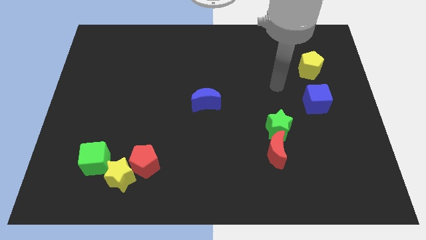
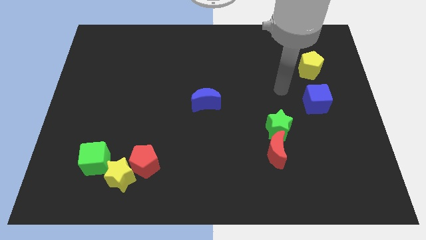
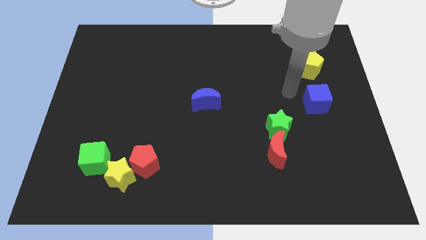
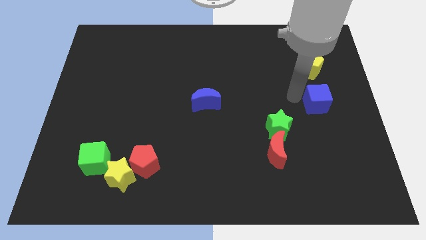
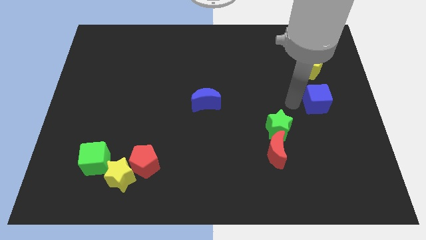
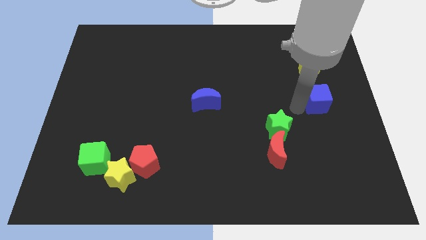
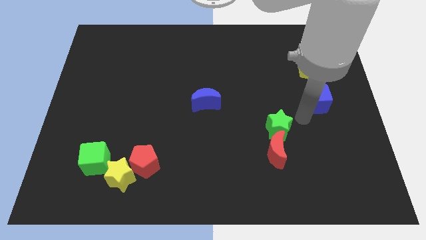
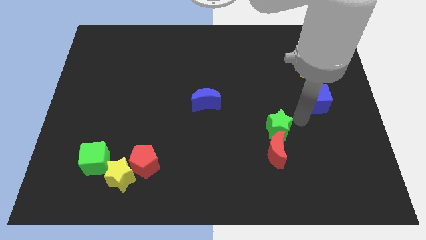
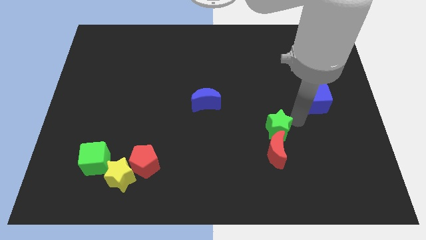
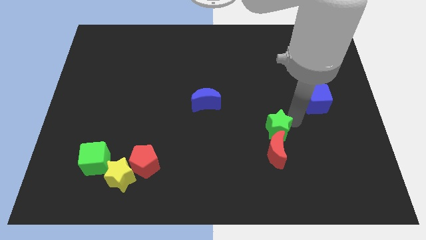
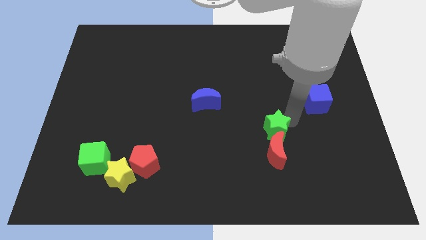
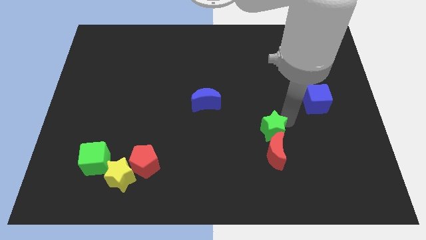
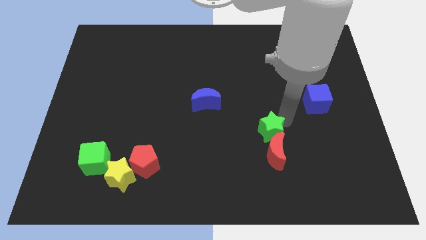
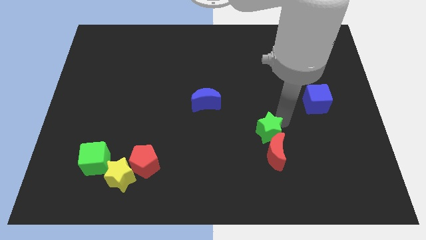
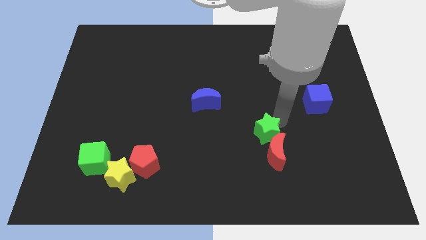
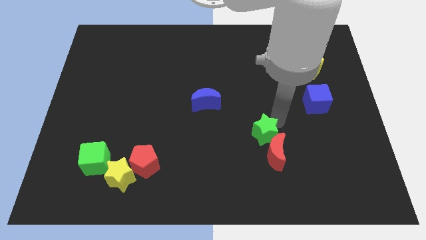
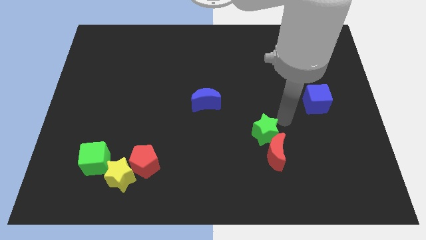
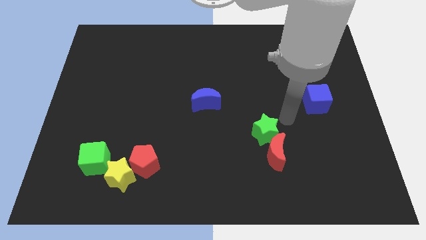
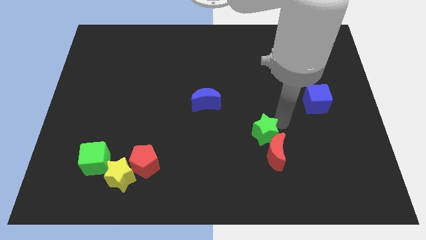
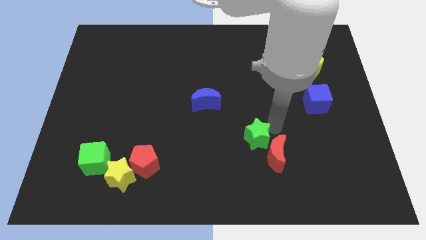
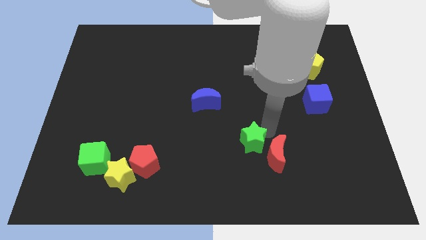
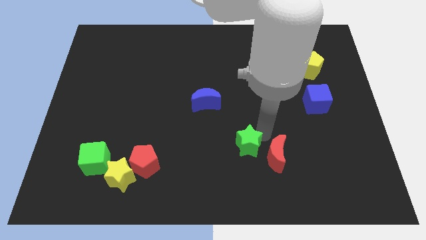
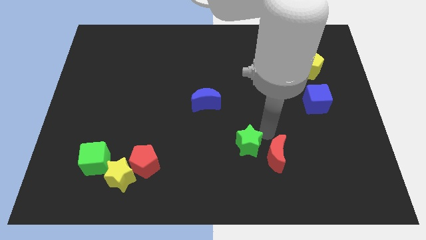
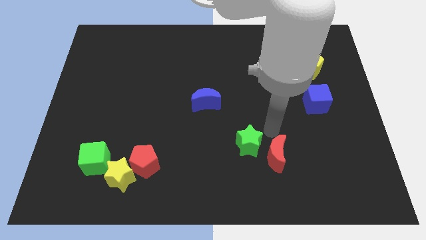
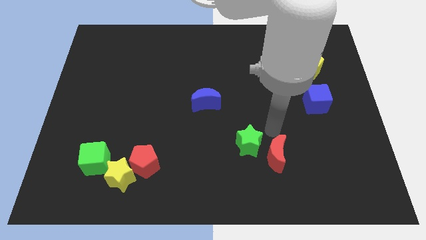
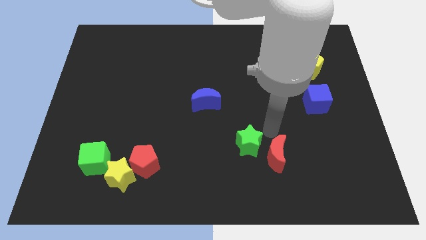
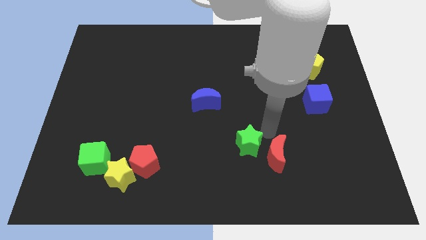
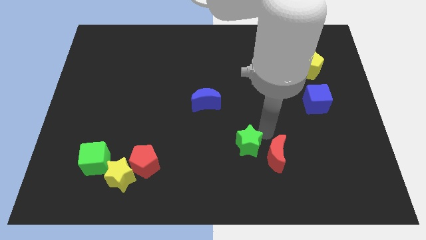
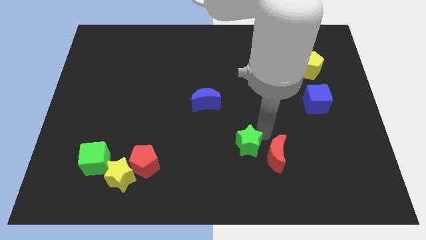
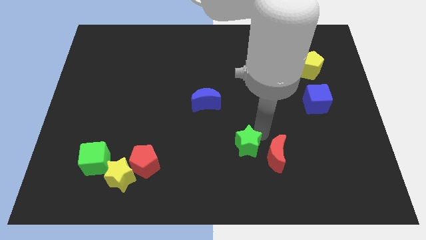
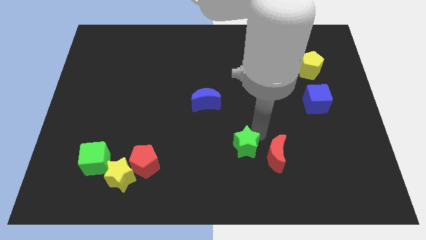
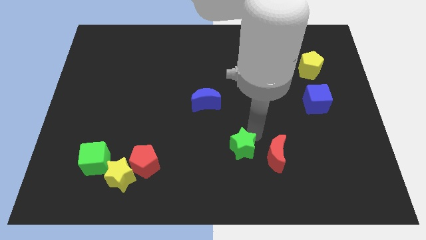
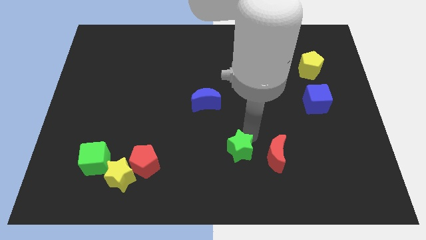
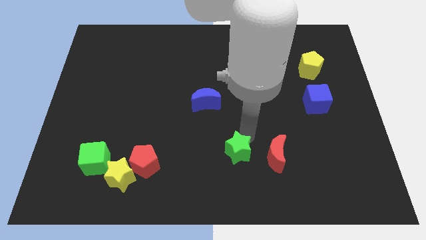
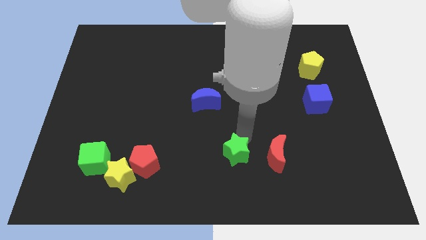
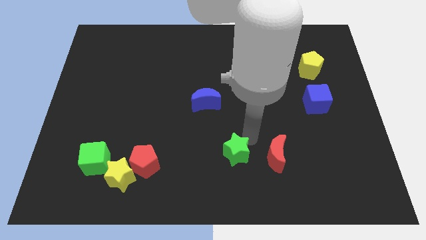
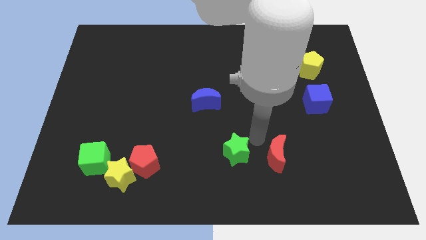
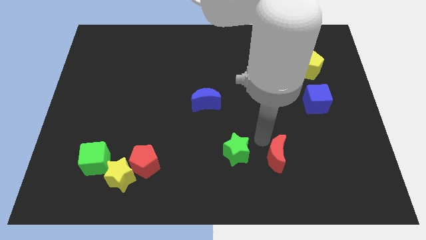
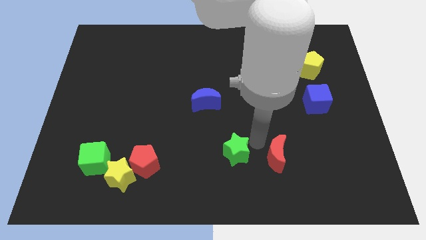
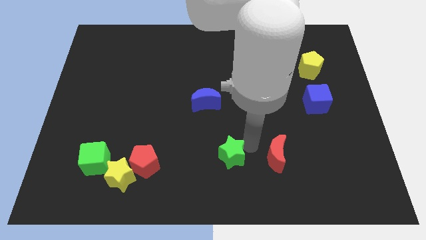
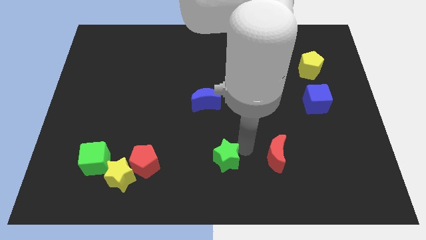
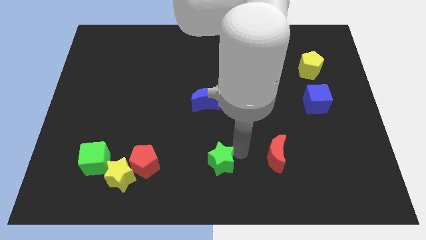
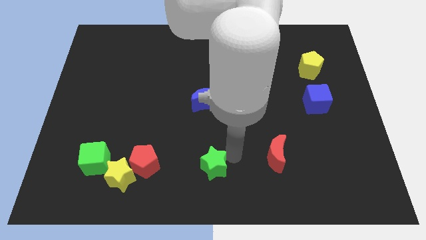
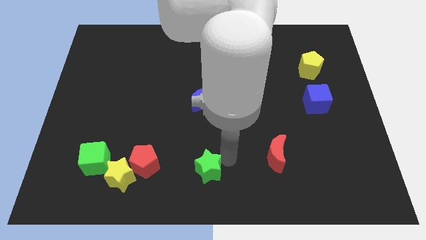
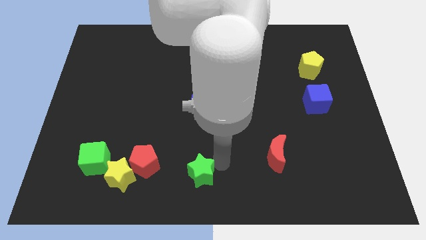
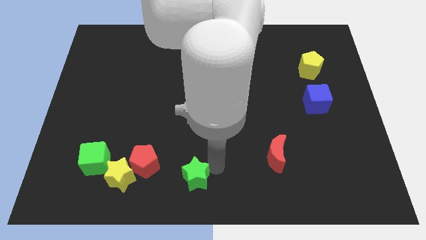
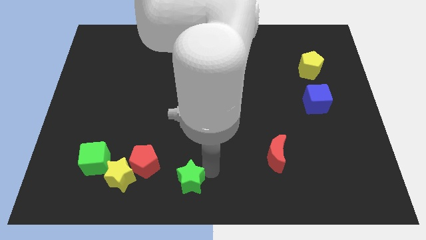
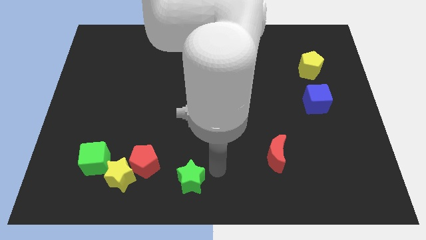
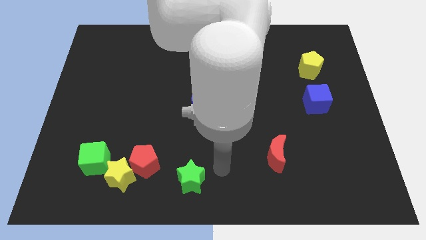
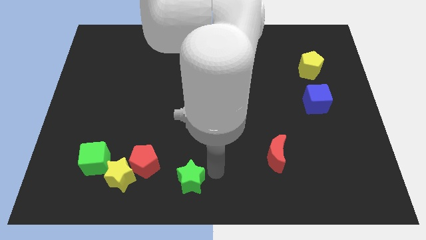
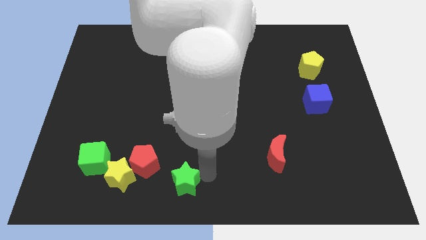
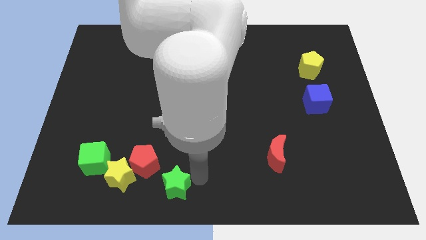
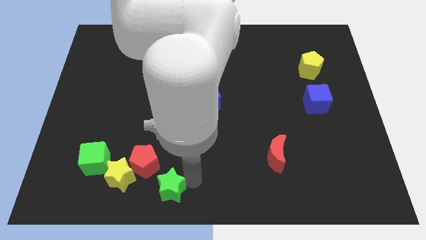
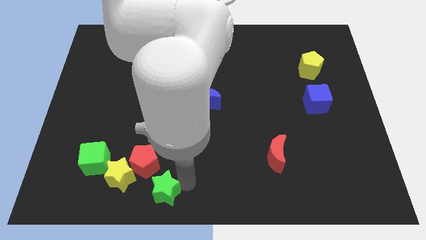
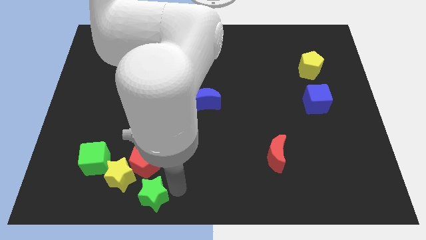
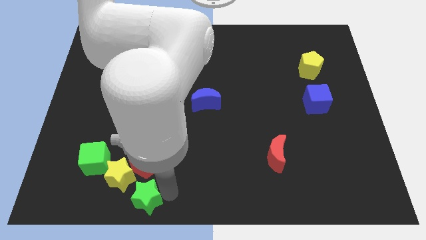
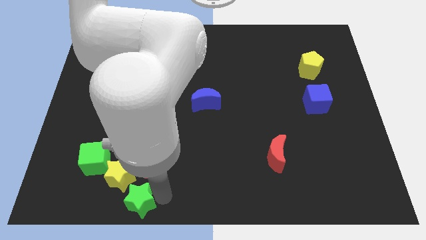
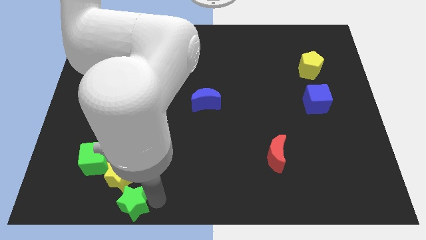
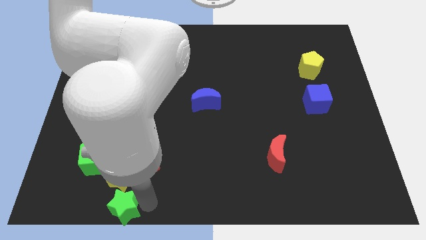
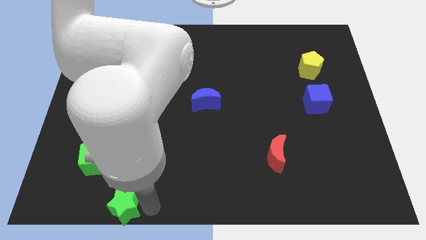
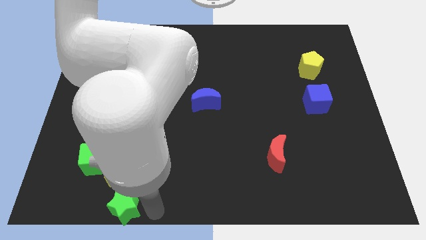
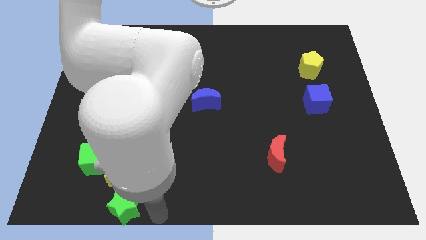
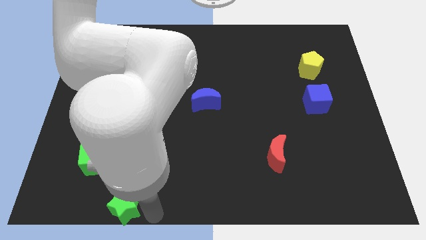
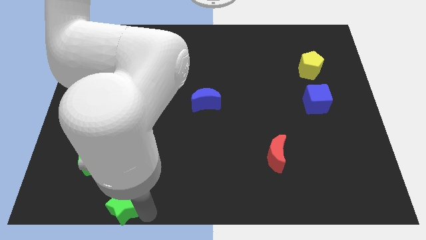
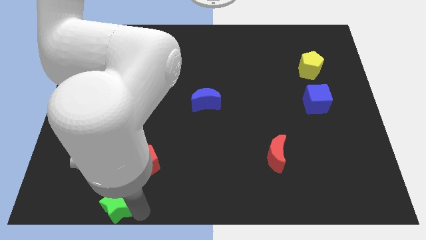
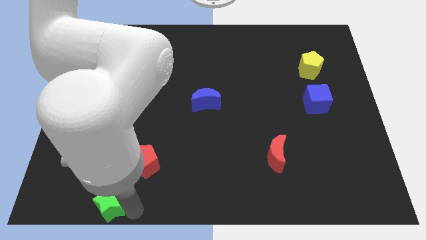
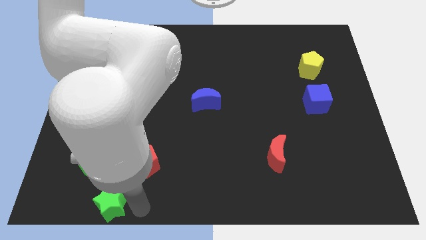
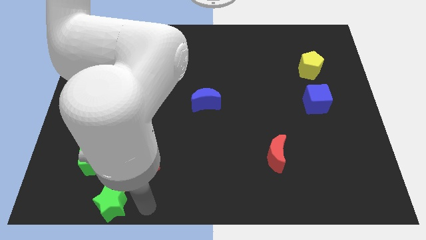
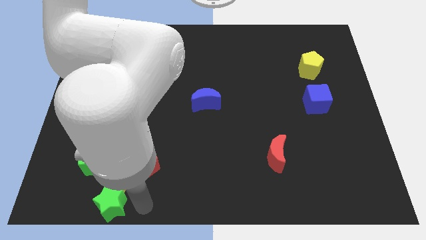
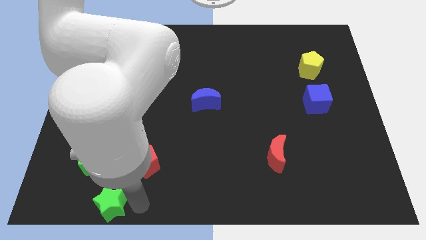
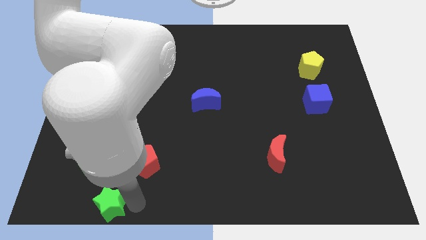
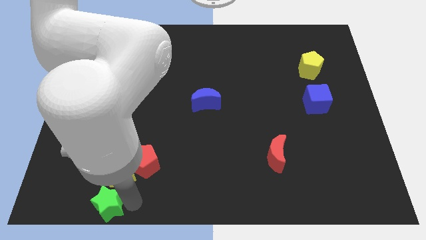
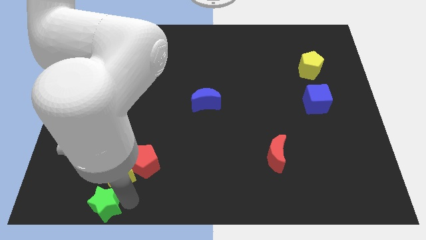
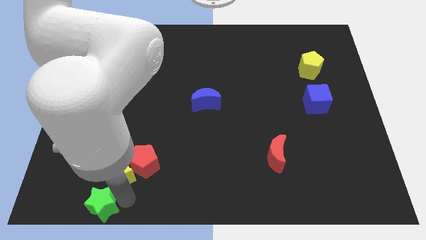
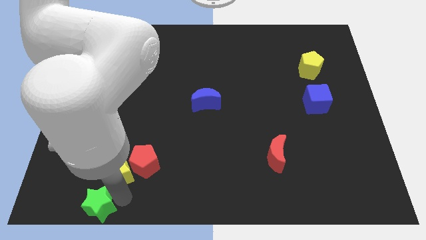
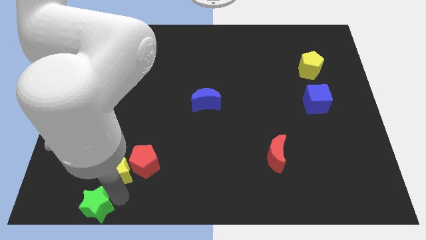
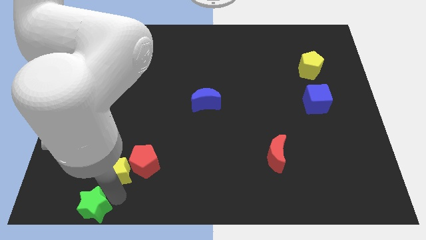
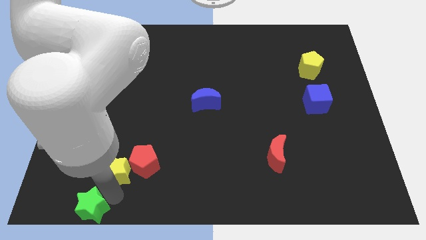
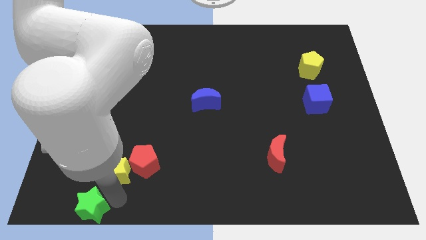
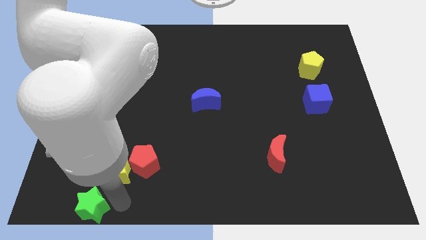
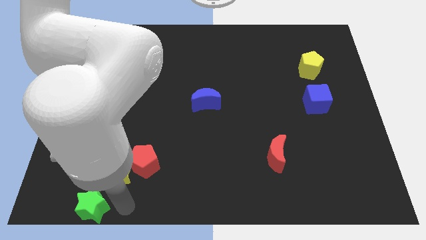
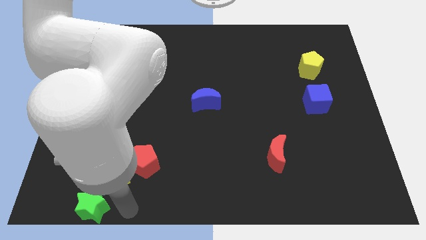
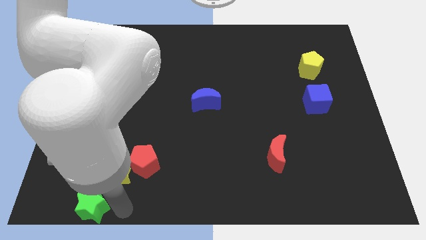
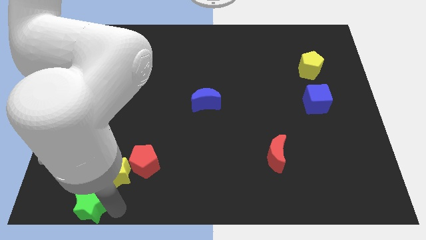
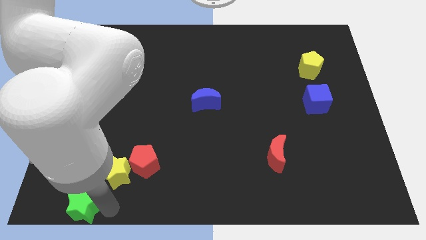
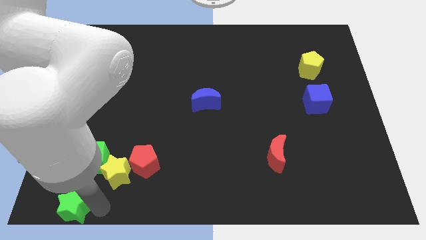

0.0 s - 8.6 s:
move the green star to the bottom left corner
